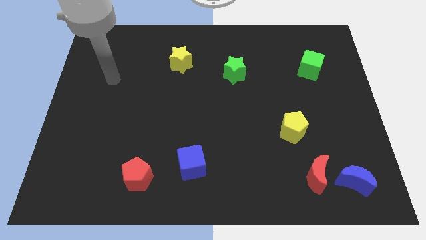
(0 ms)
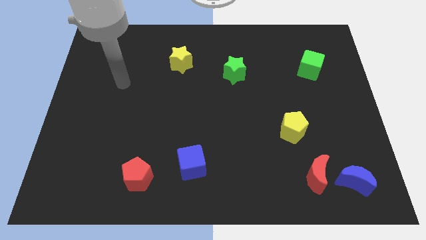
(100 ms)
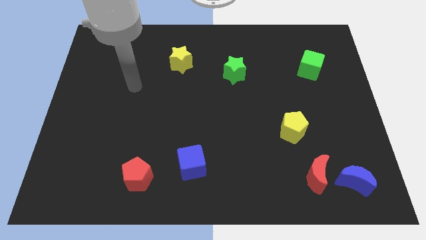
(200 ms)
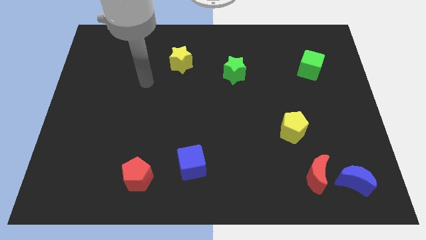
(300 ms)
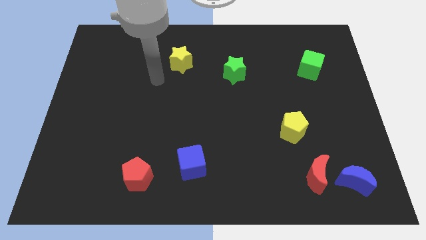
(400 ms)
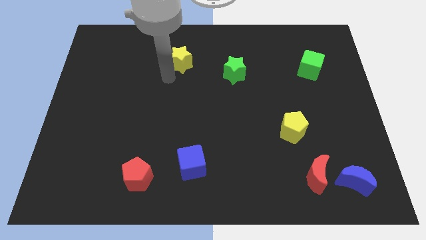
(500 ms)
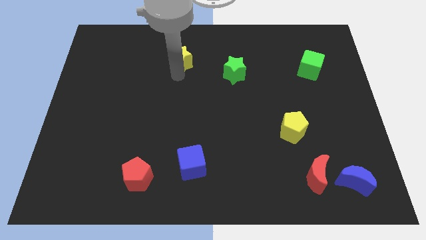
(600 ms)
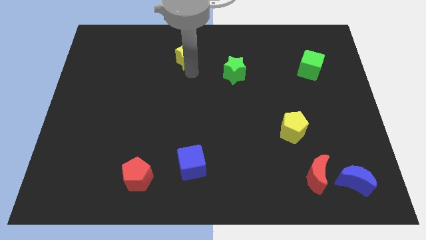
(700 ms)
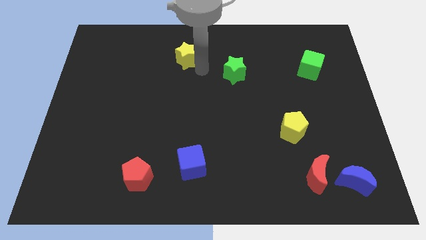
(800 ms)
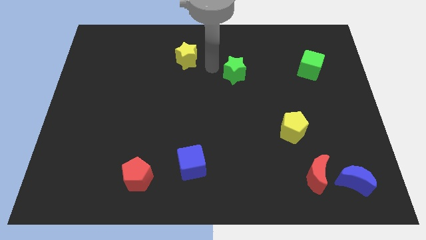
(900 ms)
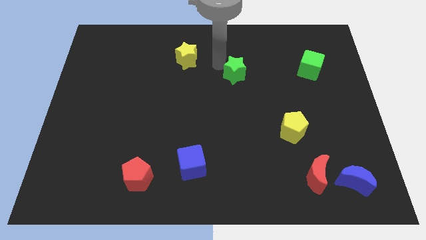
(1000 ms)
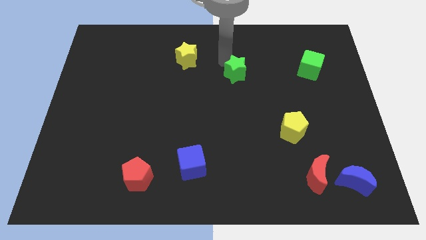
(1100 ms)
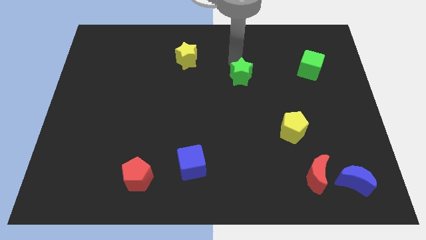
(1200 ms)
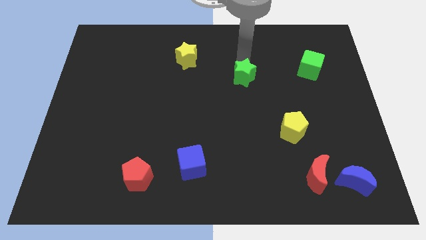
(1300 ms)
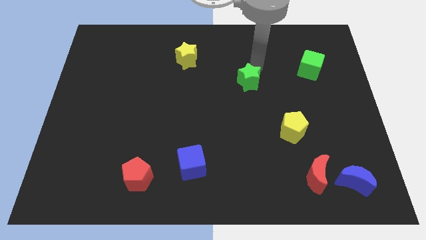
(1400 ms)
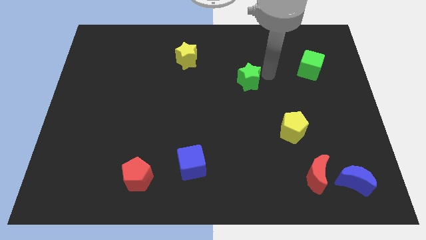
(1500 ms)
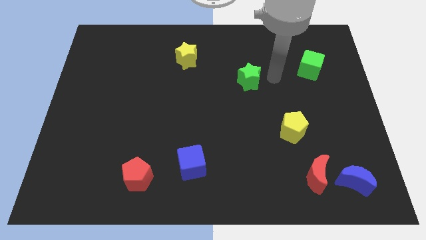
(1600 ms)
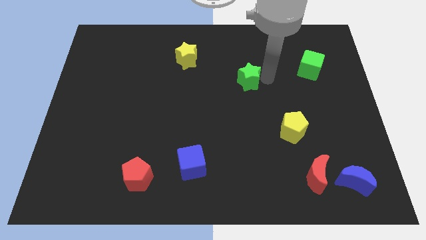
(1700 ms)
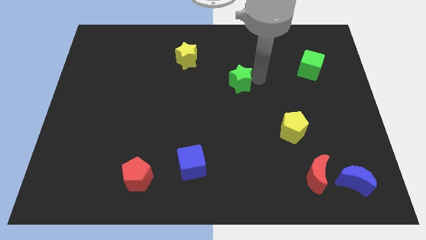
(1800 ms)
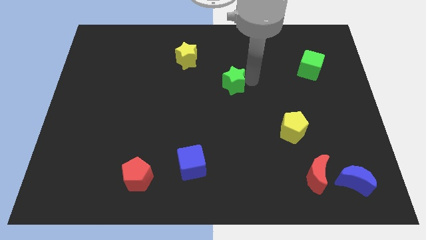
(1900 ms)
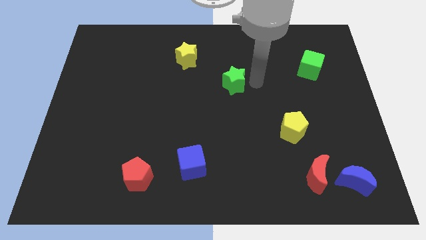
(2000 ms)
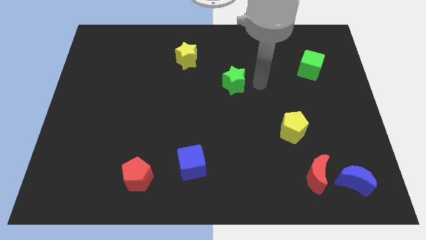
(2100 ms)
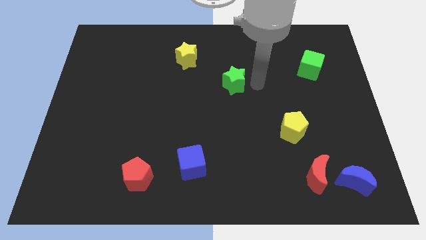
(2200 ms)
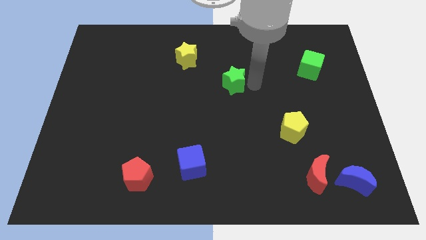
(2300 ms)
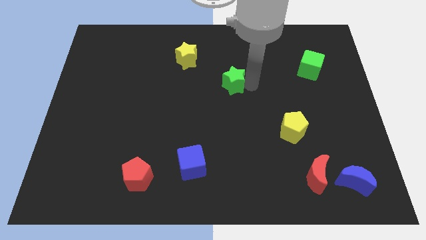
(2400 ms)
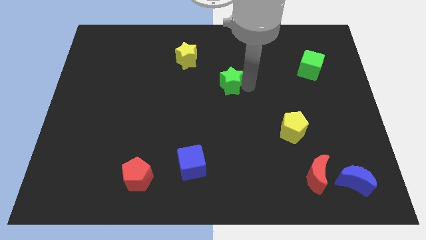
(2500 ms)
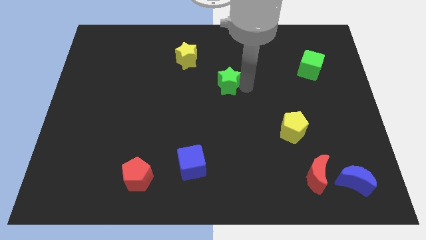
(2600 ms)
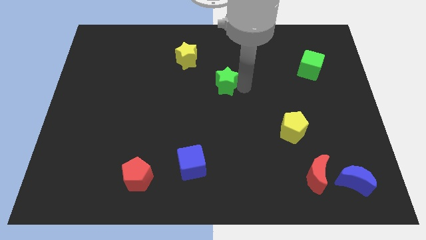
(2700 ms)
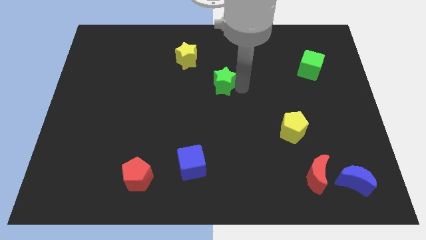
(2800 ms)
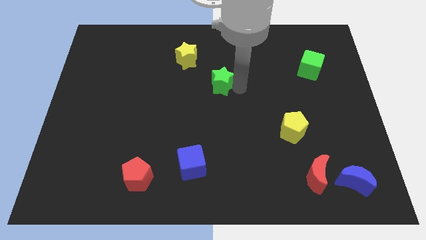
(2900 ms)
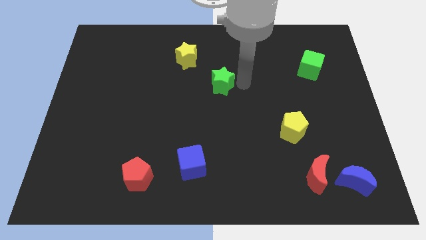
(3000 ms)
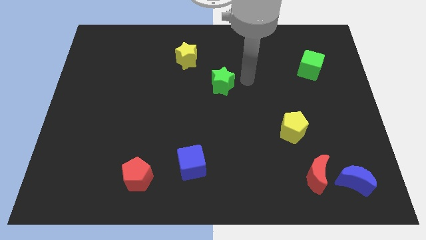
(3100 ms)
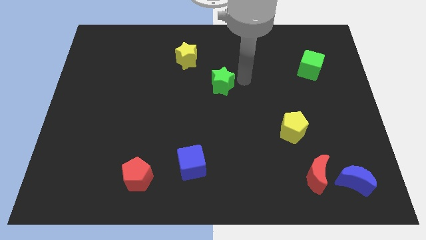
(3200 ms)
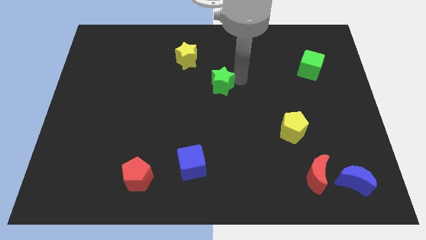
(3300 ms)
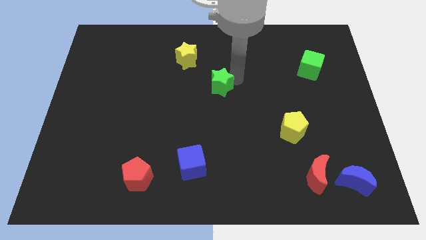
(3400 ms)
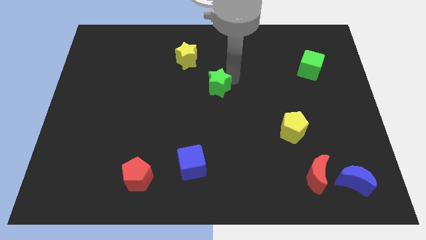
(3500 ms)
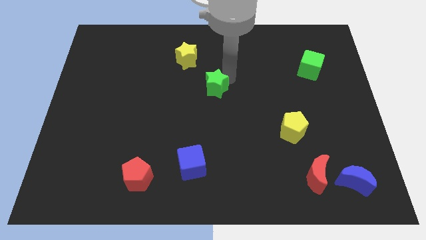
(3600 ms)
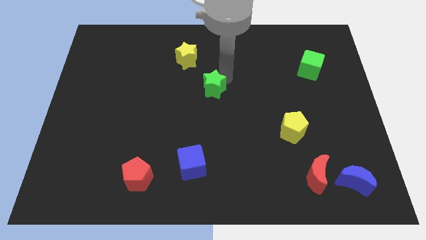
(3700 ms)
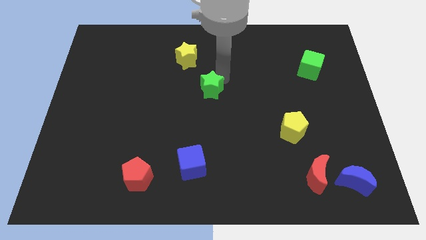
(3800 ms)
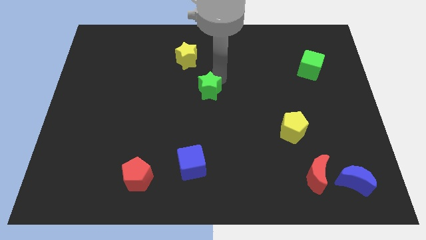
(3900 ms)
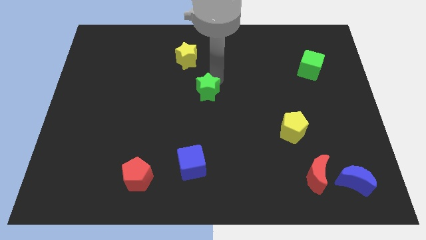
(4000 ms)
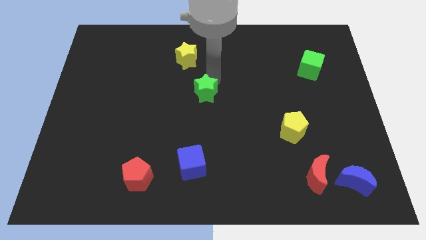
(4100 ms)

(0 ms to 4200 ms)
push the green star to the bottom side of the yellow star

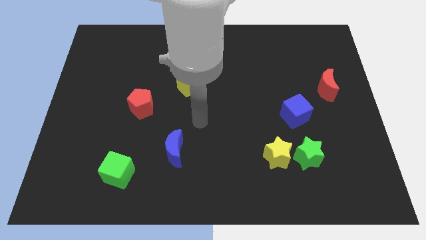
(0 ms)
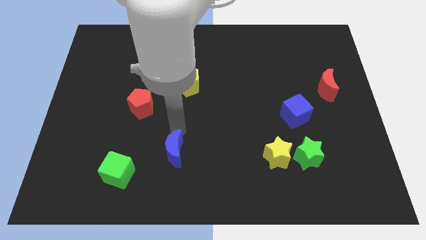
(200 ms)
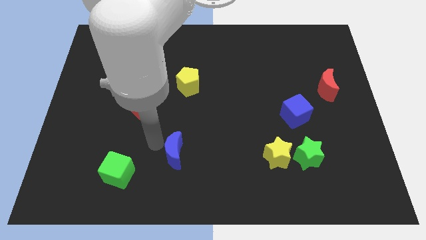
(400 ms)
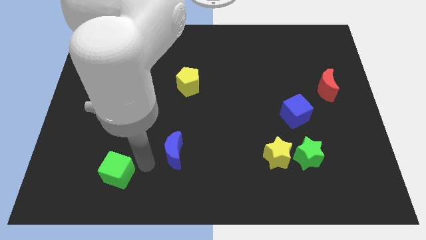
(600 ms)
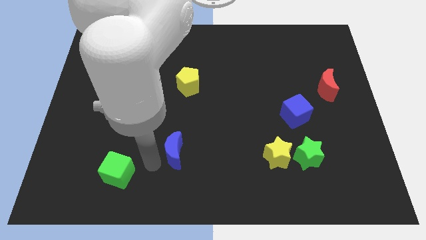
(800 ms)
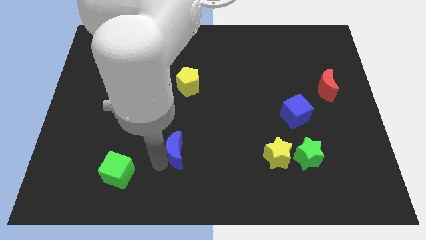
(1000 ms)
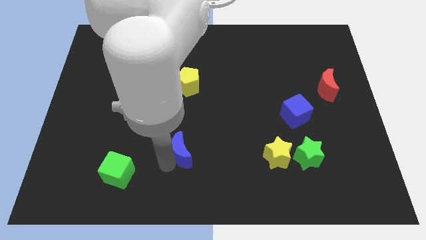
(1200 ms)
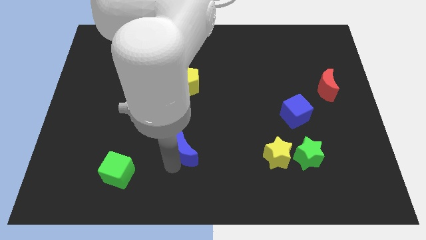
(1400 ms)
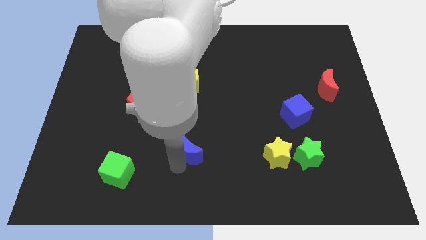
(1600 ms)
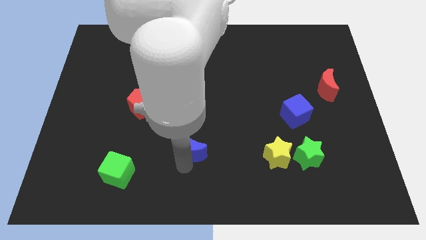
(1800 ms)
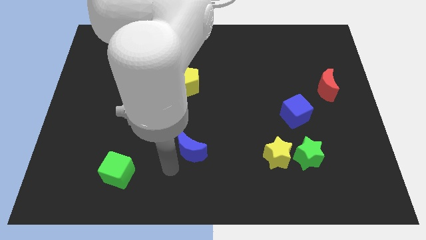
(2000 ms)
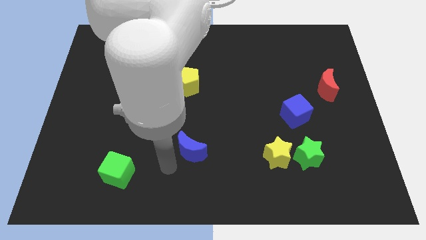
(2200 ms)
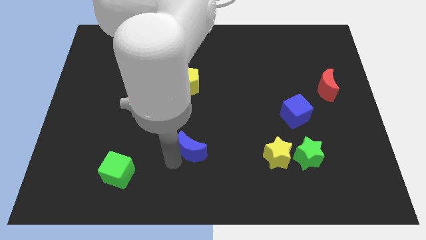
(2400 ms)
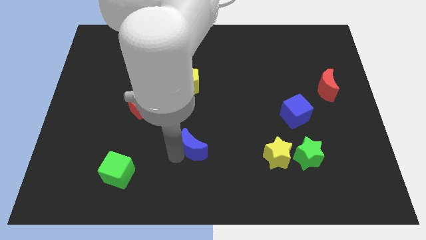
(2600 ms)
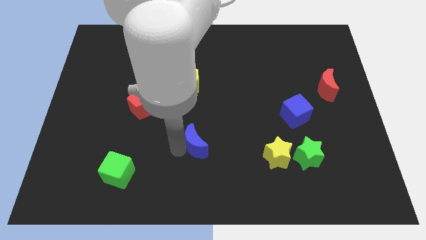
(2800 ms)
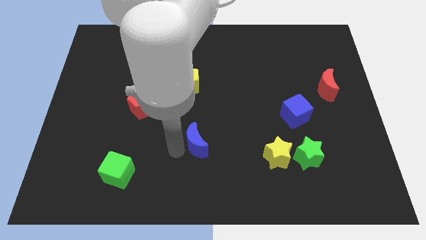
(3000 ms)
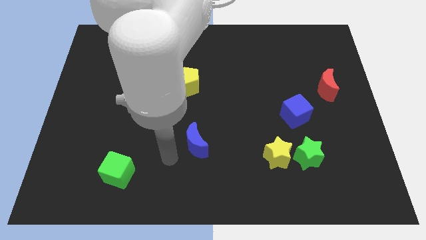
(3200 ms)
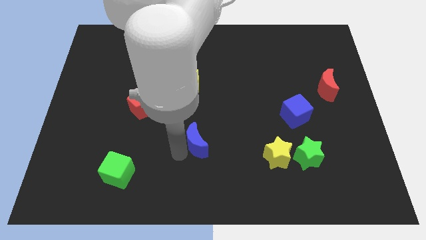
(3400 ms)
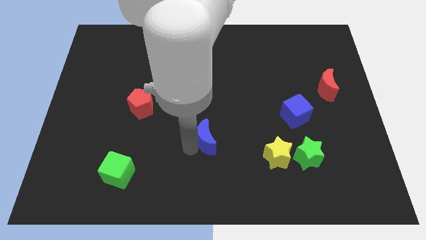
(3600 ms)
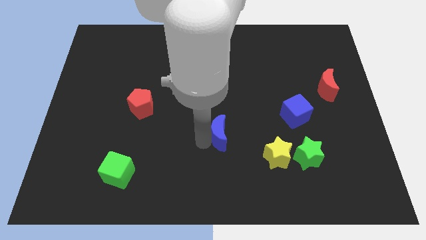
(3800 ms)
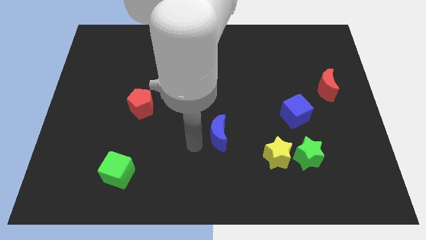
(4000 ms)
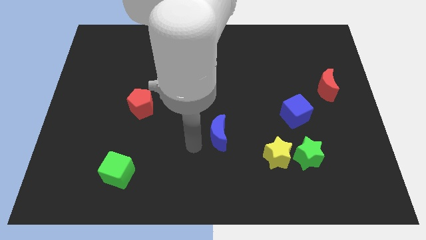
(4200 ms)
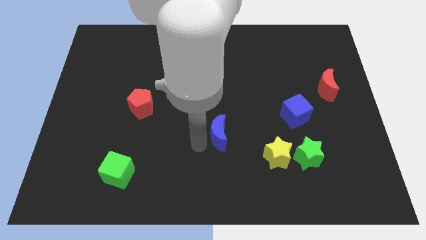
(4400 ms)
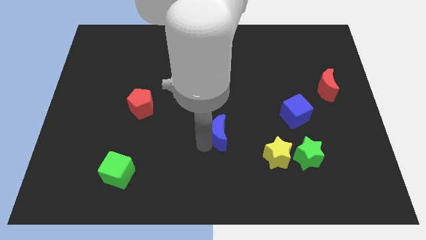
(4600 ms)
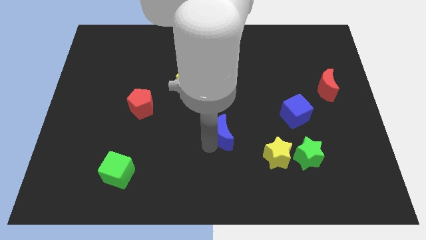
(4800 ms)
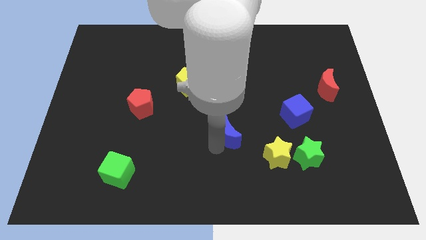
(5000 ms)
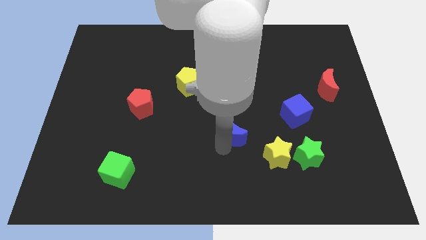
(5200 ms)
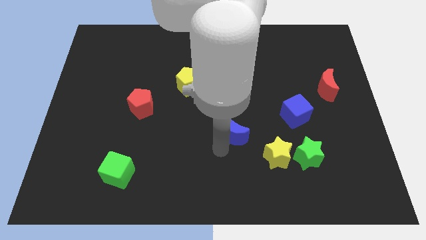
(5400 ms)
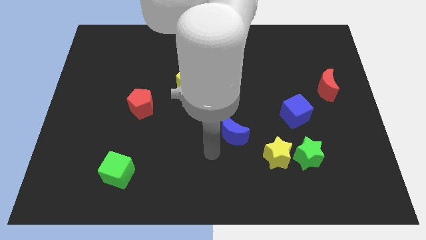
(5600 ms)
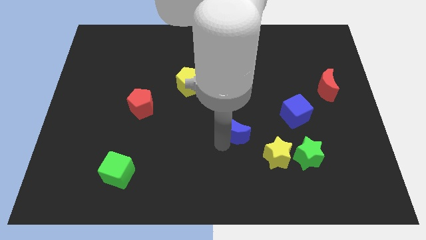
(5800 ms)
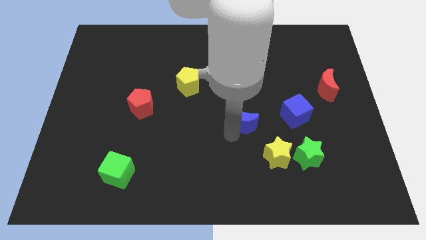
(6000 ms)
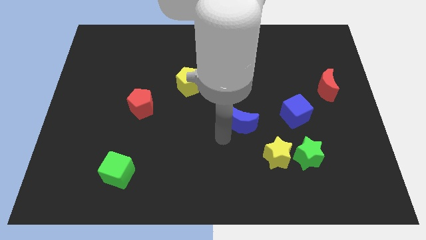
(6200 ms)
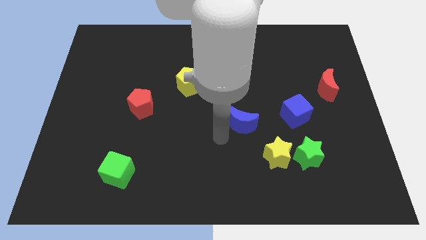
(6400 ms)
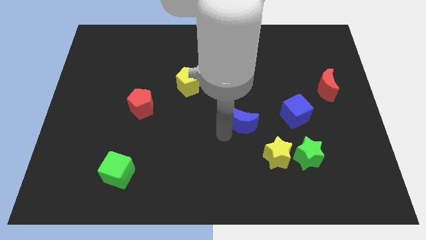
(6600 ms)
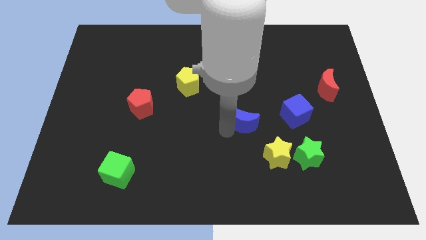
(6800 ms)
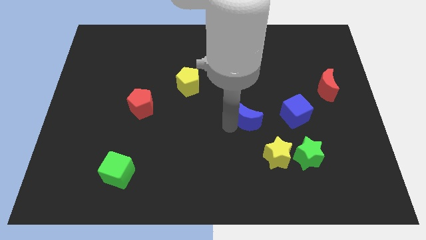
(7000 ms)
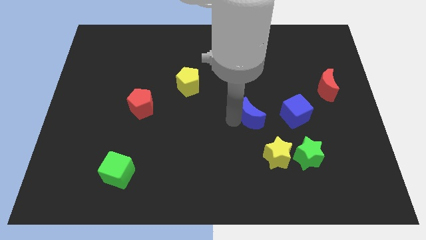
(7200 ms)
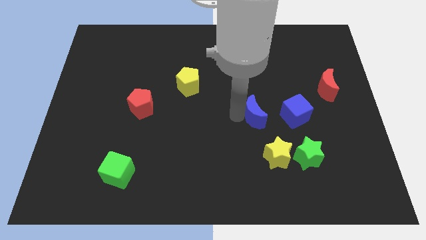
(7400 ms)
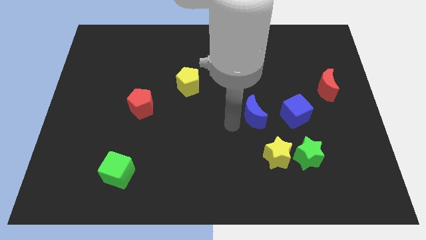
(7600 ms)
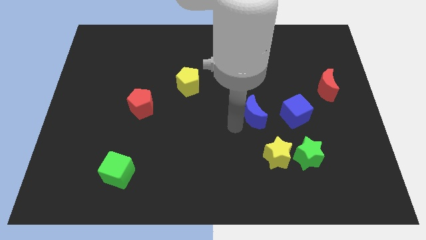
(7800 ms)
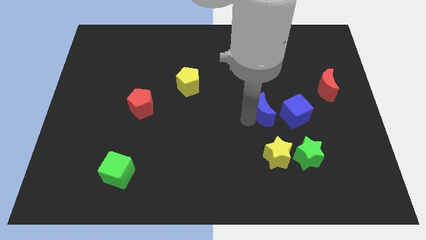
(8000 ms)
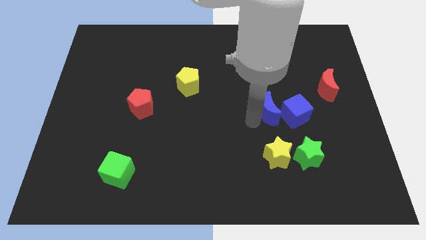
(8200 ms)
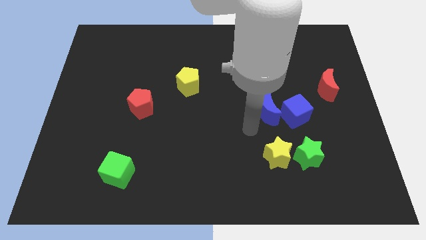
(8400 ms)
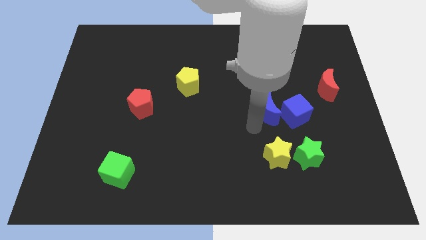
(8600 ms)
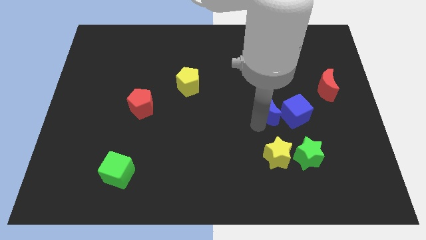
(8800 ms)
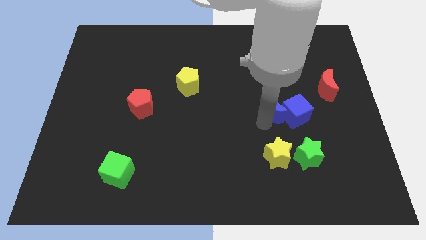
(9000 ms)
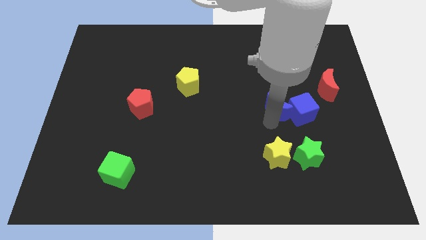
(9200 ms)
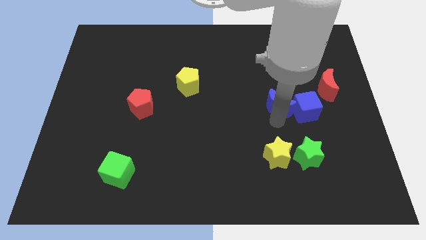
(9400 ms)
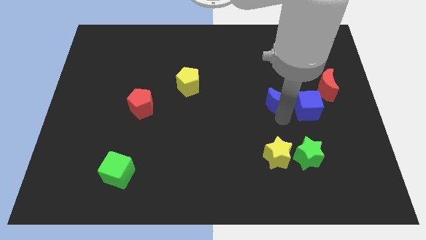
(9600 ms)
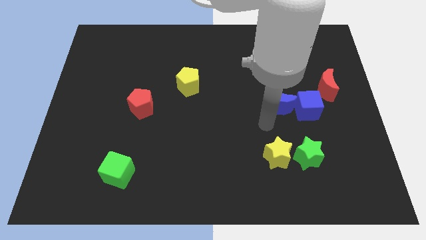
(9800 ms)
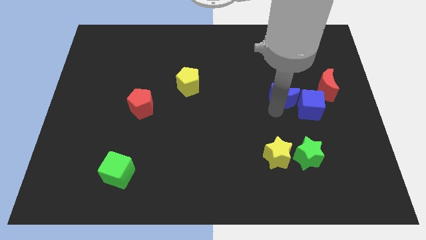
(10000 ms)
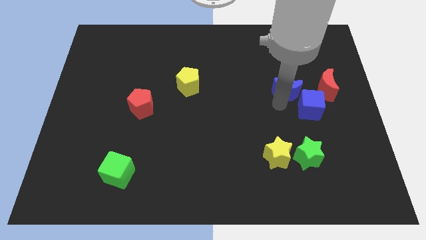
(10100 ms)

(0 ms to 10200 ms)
move the blue moon to the top of the blue cube
